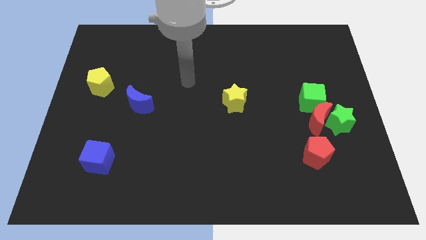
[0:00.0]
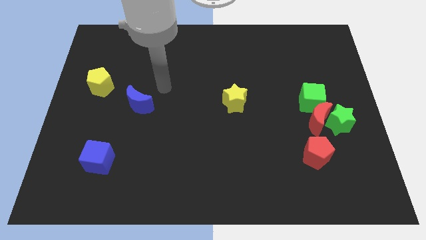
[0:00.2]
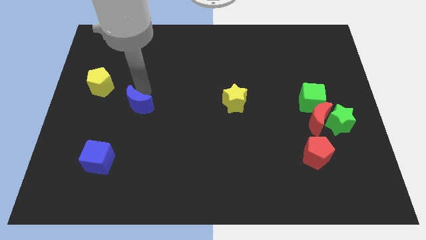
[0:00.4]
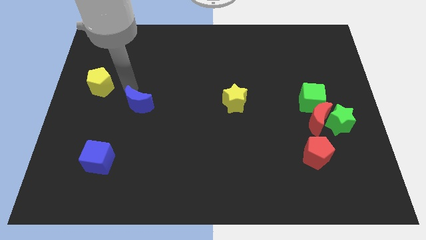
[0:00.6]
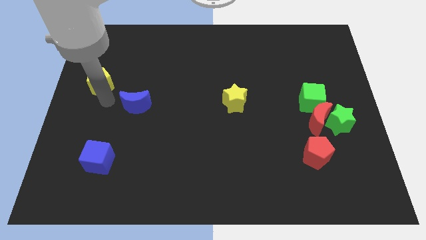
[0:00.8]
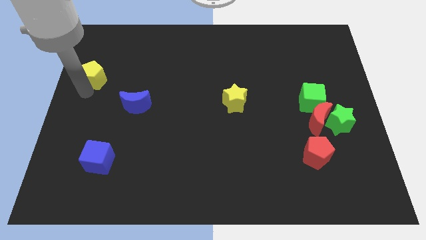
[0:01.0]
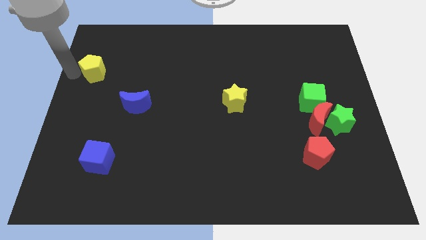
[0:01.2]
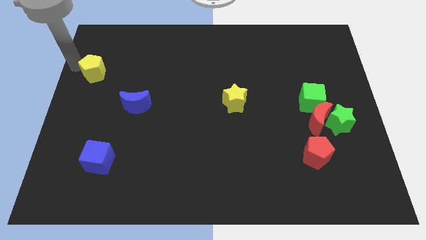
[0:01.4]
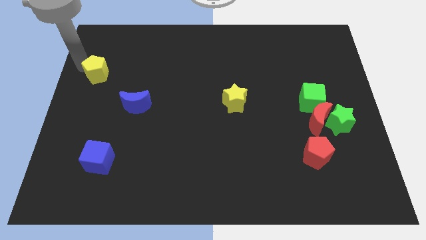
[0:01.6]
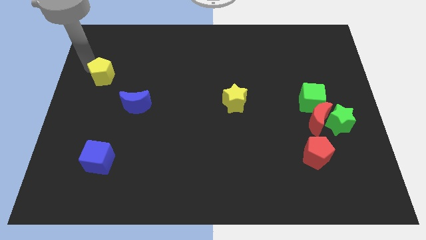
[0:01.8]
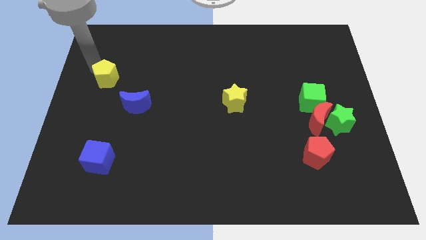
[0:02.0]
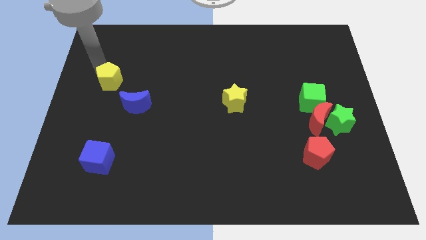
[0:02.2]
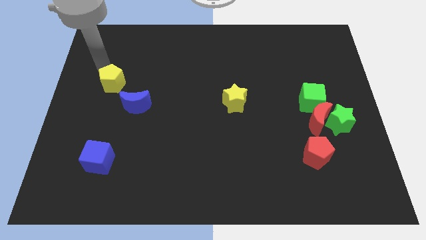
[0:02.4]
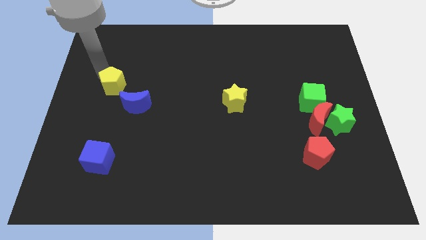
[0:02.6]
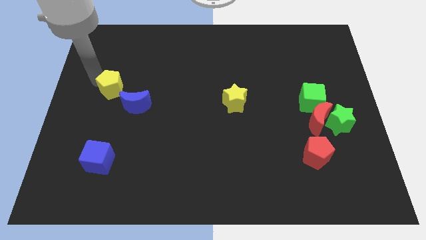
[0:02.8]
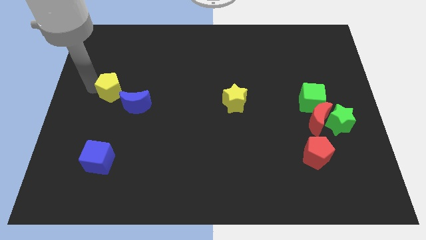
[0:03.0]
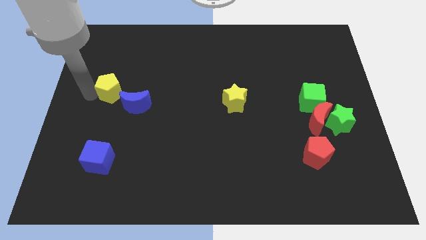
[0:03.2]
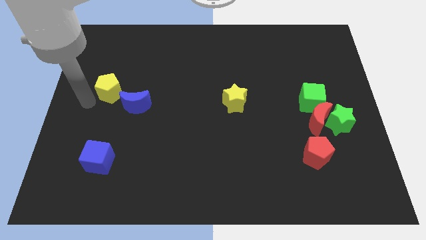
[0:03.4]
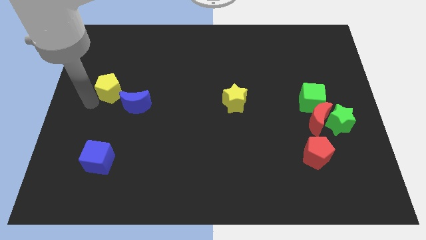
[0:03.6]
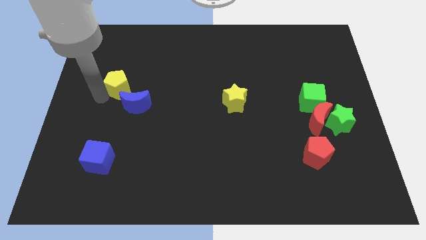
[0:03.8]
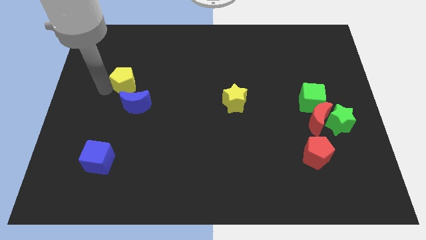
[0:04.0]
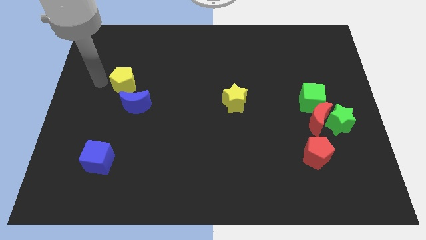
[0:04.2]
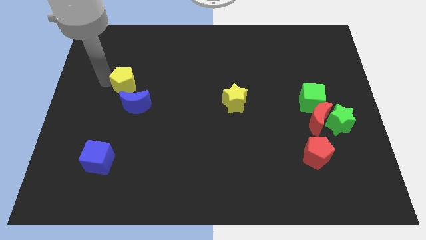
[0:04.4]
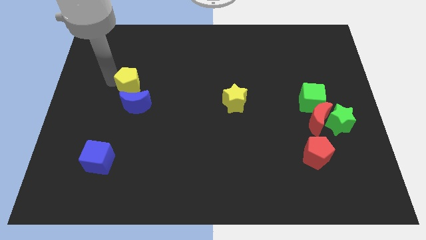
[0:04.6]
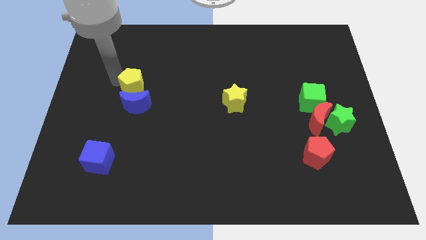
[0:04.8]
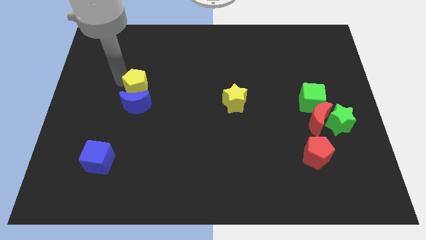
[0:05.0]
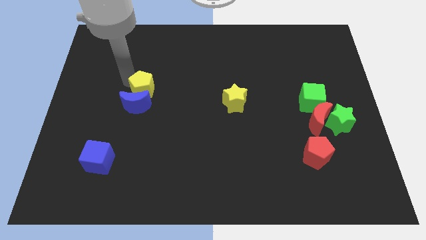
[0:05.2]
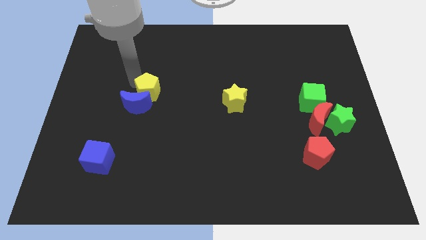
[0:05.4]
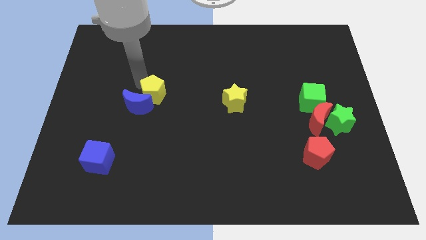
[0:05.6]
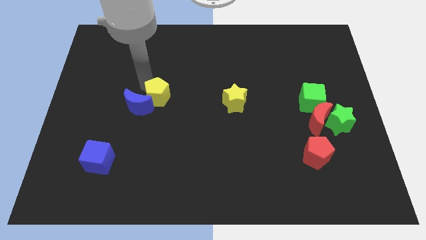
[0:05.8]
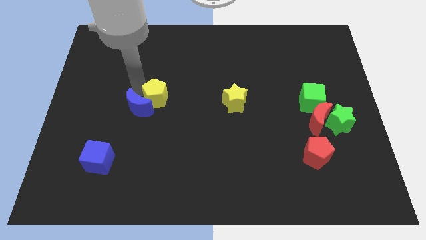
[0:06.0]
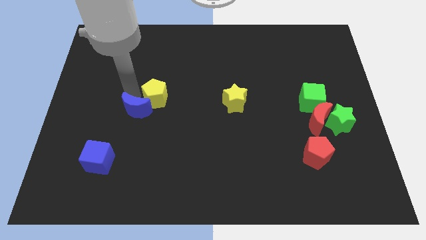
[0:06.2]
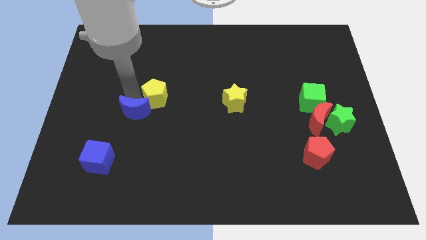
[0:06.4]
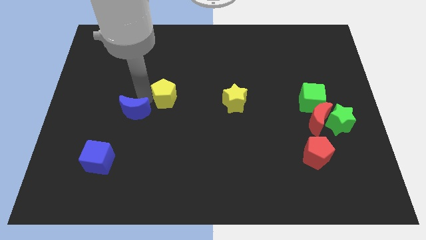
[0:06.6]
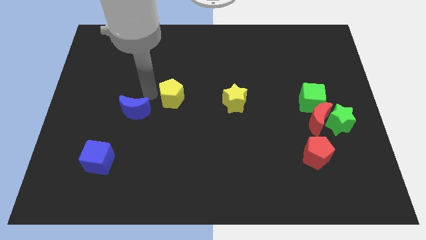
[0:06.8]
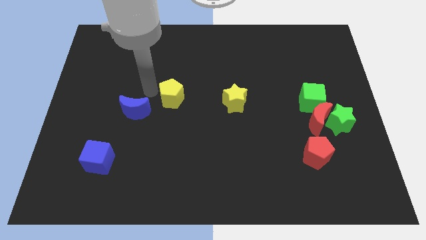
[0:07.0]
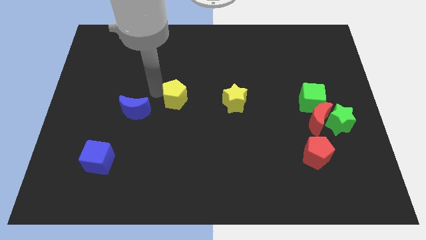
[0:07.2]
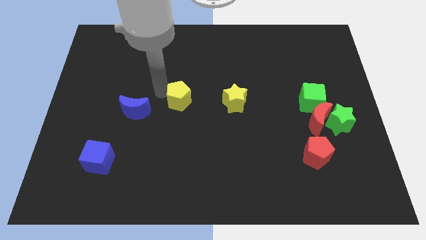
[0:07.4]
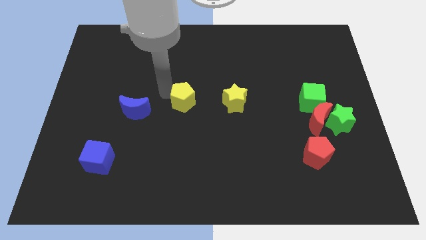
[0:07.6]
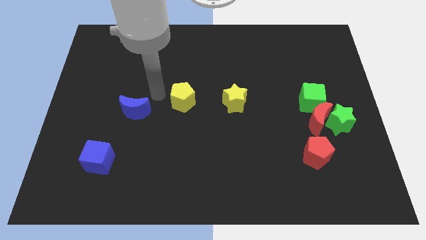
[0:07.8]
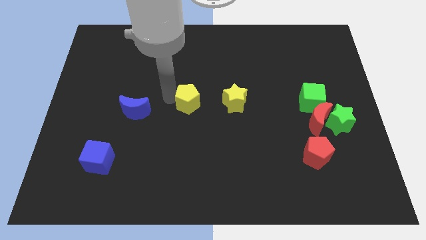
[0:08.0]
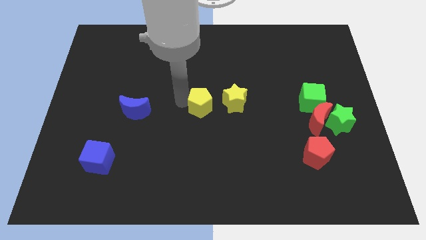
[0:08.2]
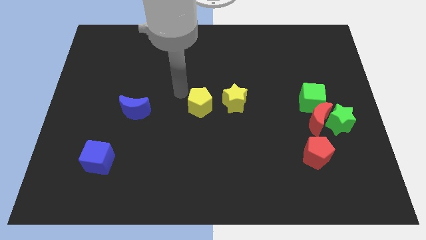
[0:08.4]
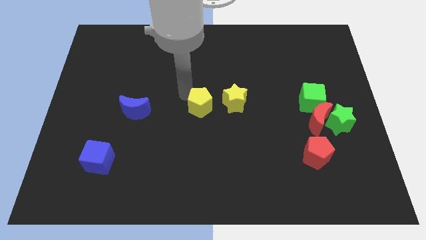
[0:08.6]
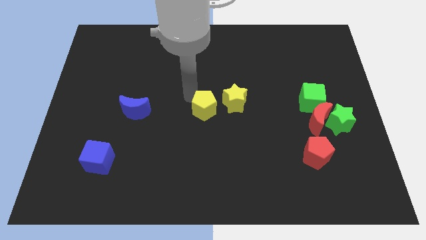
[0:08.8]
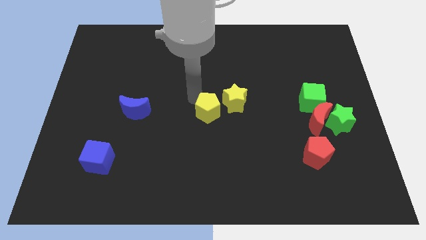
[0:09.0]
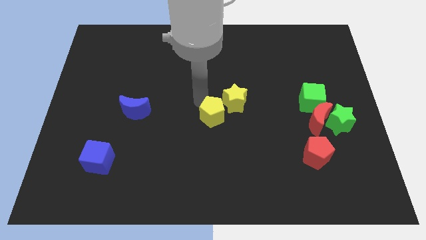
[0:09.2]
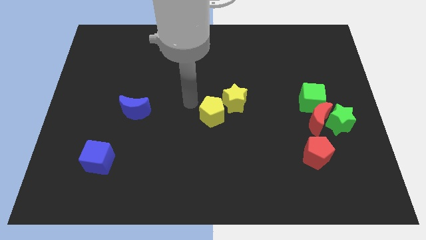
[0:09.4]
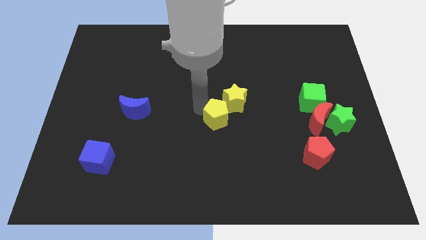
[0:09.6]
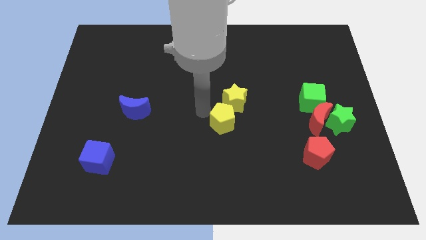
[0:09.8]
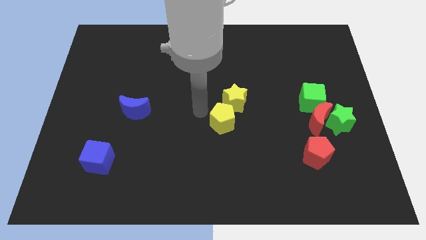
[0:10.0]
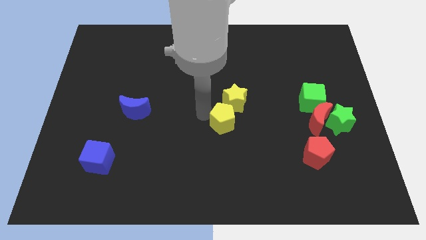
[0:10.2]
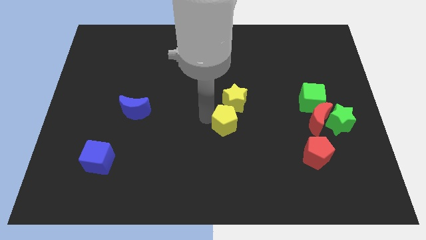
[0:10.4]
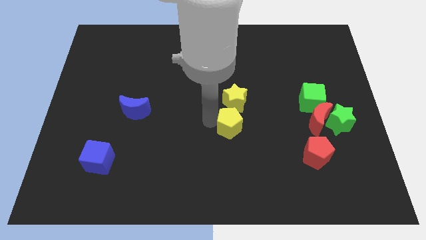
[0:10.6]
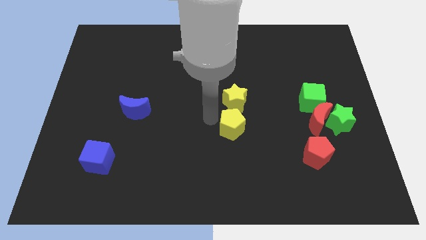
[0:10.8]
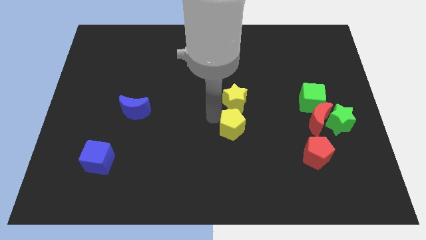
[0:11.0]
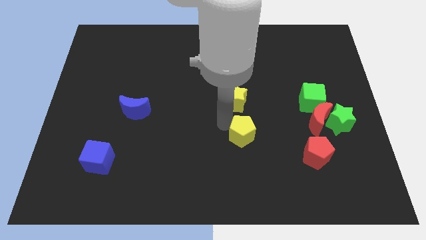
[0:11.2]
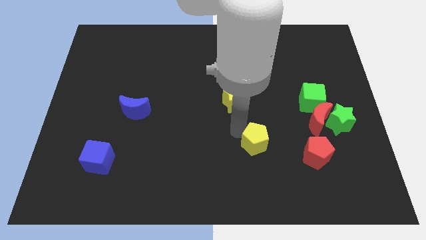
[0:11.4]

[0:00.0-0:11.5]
move the yellow pentagon to the left of the red pentagon

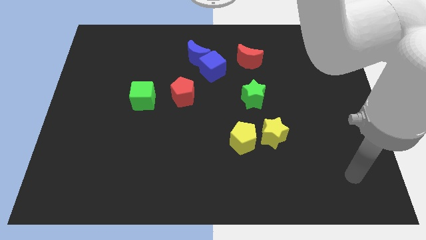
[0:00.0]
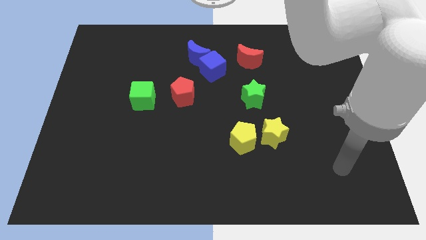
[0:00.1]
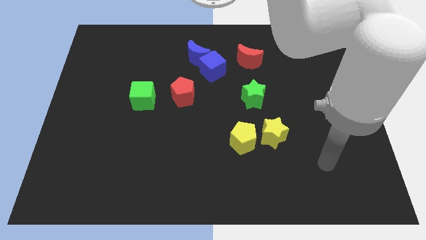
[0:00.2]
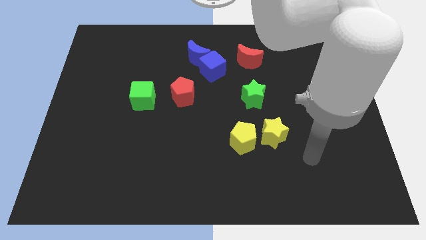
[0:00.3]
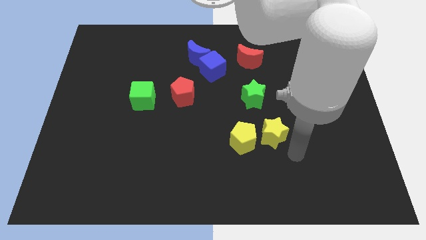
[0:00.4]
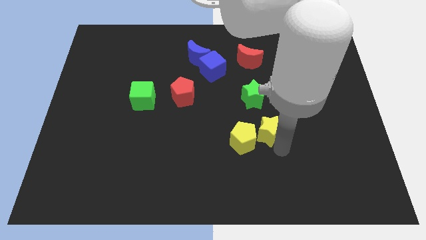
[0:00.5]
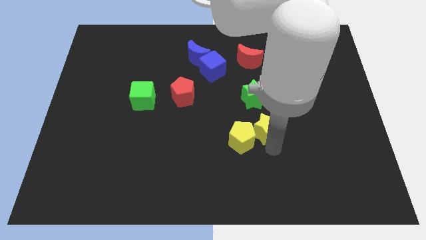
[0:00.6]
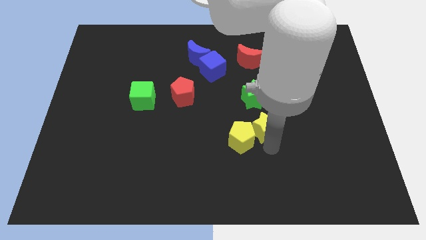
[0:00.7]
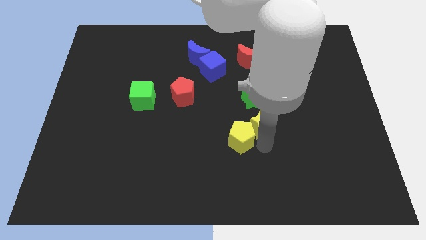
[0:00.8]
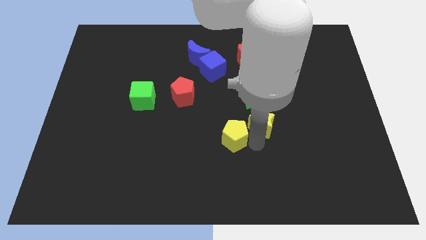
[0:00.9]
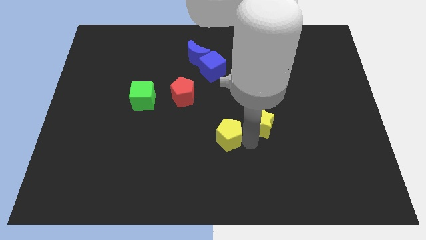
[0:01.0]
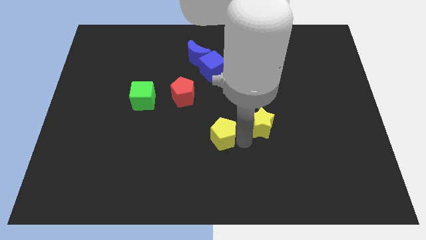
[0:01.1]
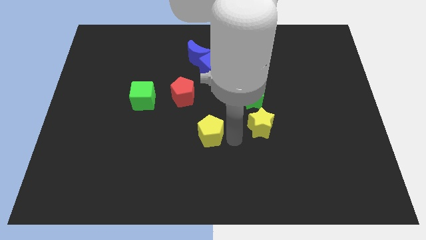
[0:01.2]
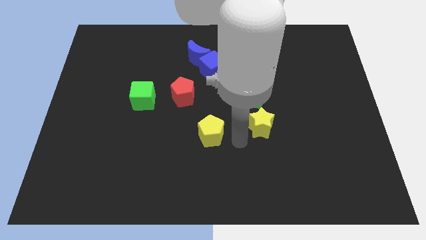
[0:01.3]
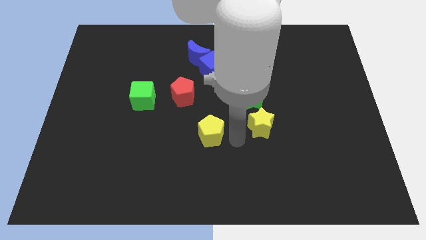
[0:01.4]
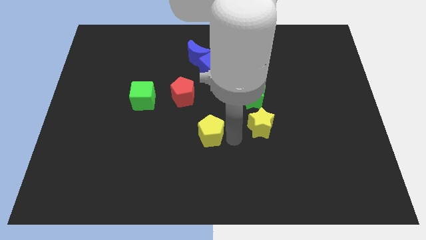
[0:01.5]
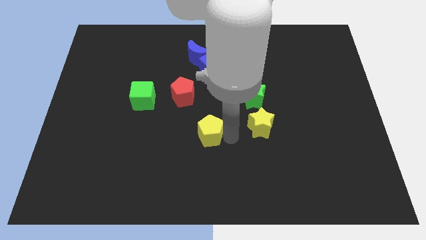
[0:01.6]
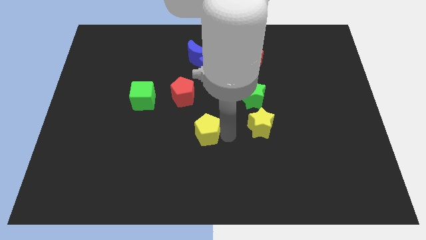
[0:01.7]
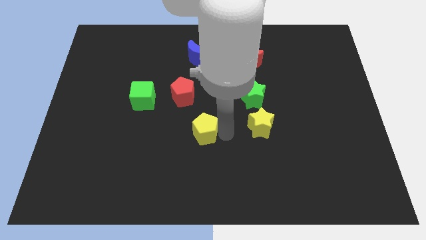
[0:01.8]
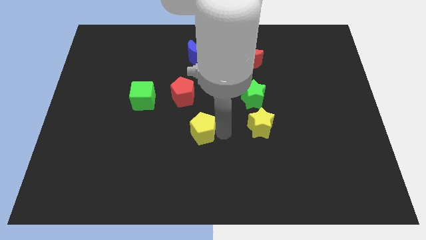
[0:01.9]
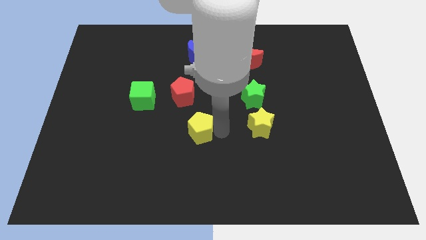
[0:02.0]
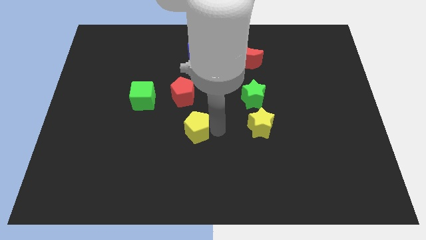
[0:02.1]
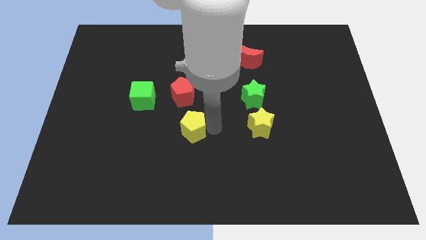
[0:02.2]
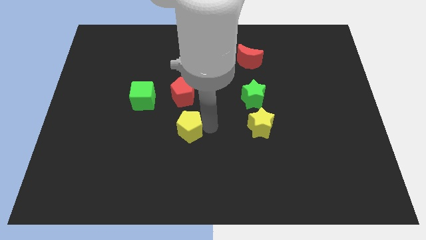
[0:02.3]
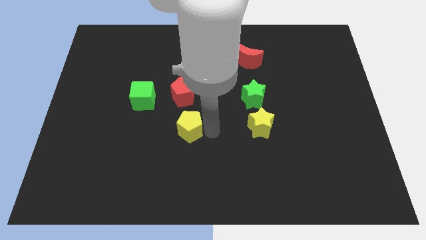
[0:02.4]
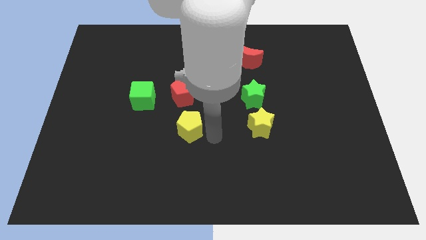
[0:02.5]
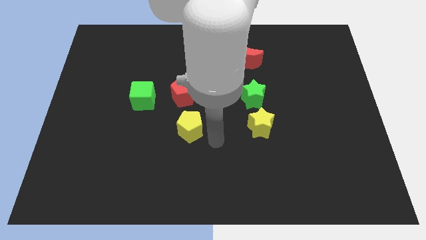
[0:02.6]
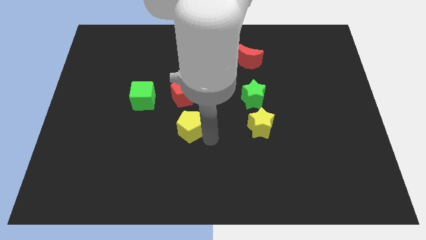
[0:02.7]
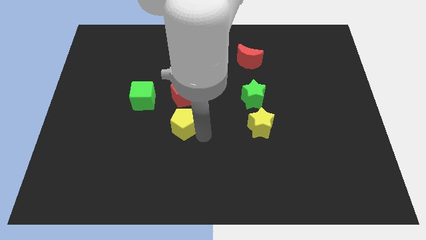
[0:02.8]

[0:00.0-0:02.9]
move the yellow pentagon diagonally down and to the right of the green cube
